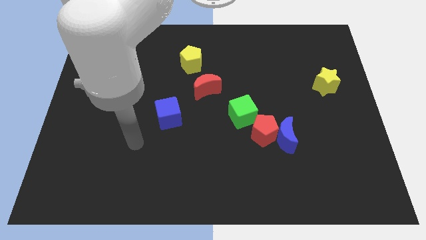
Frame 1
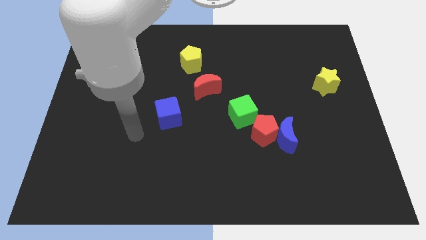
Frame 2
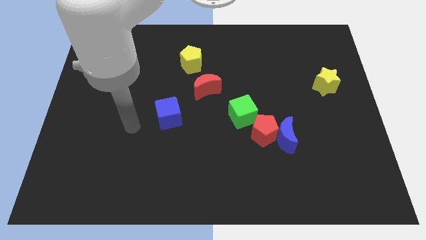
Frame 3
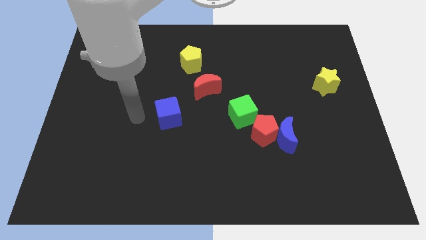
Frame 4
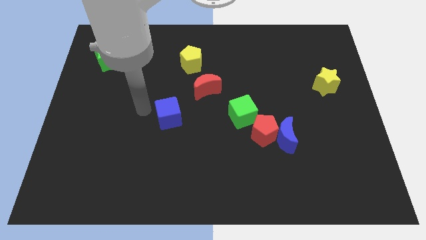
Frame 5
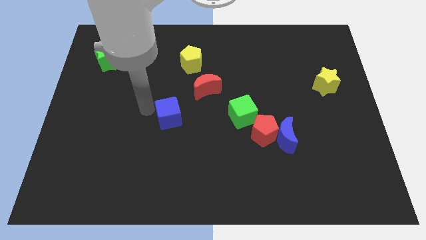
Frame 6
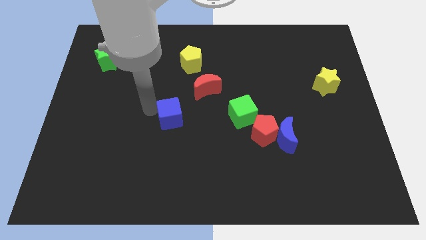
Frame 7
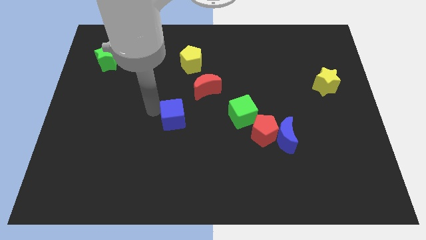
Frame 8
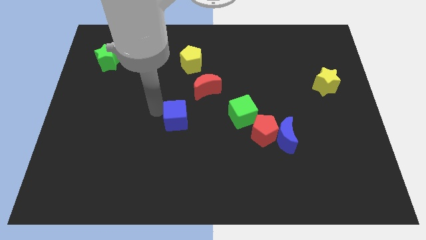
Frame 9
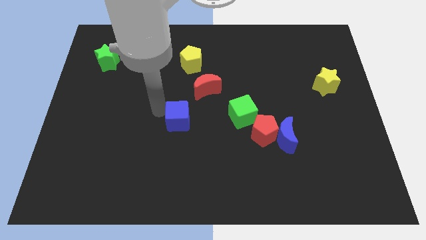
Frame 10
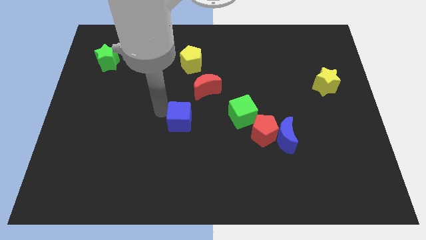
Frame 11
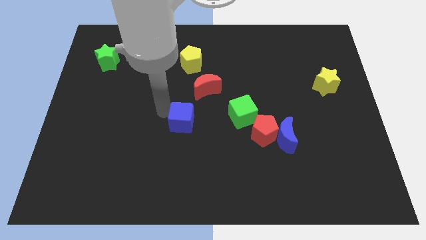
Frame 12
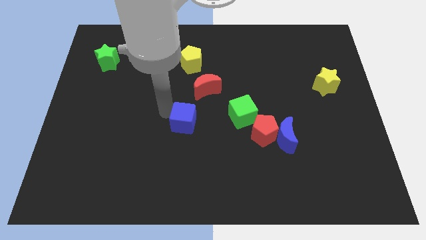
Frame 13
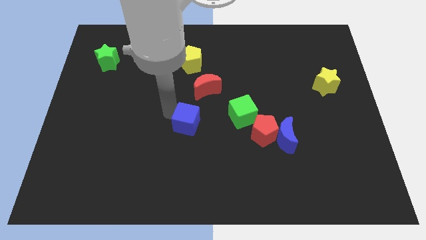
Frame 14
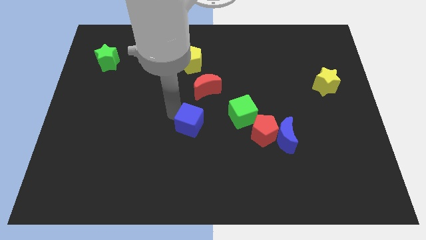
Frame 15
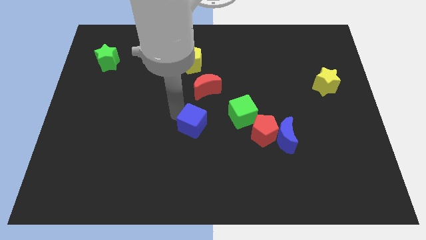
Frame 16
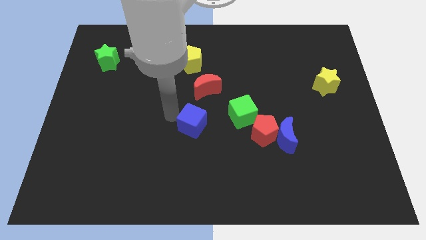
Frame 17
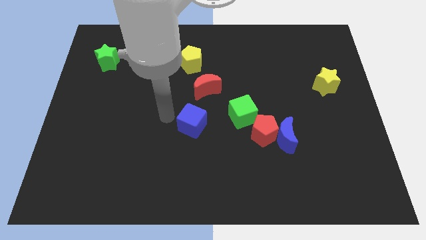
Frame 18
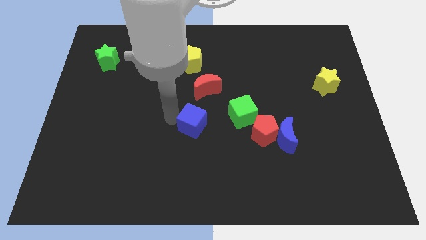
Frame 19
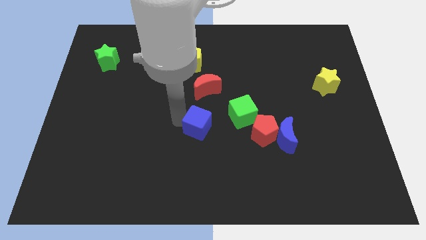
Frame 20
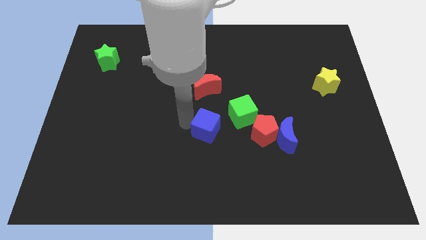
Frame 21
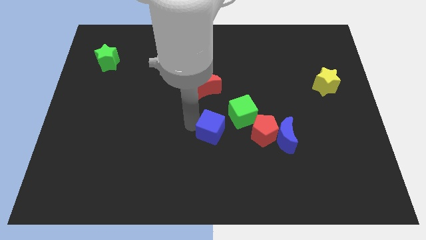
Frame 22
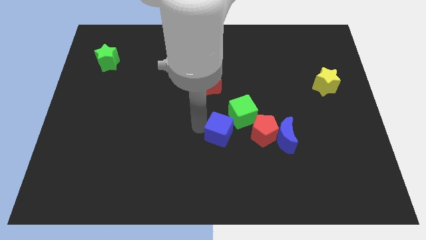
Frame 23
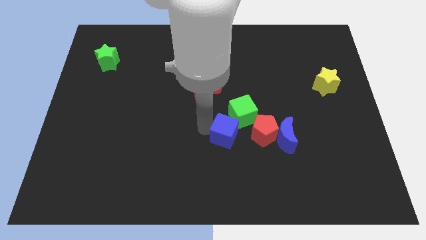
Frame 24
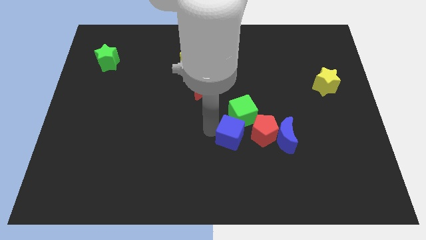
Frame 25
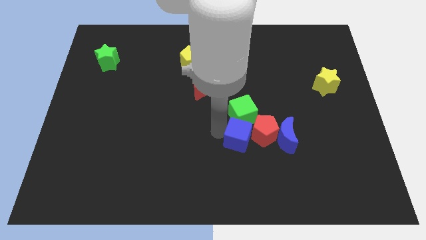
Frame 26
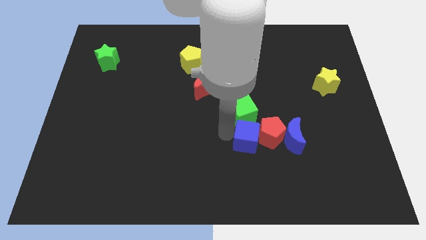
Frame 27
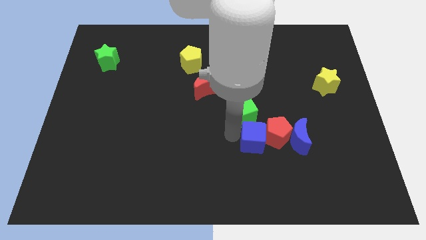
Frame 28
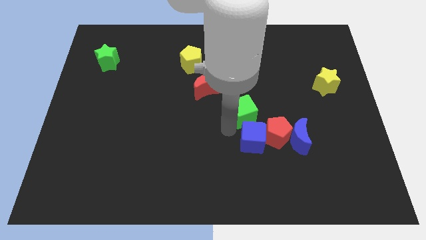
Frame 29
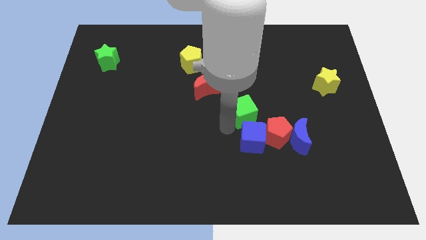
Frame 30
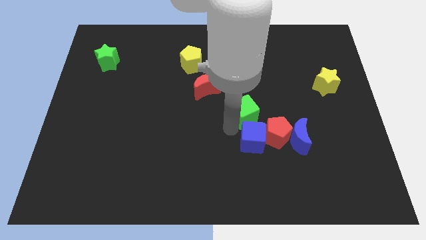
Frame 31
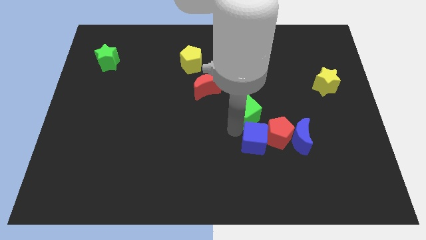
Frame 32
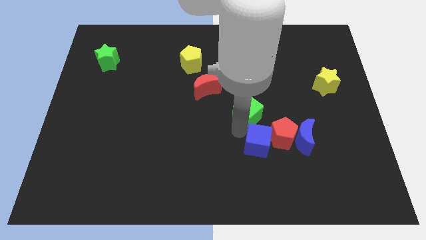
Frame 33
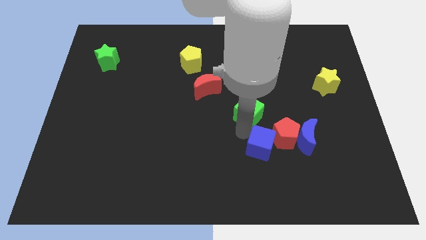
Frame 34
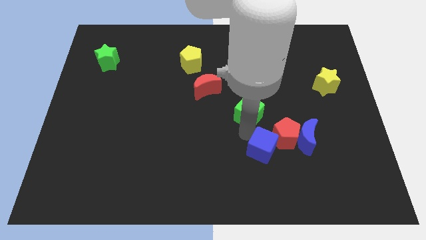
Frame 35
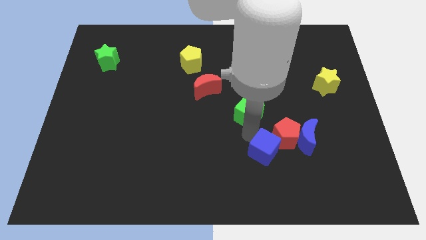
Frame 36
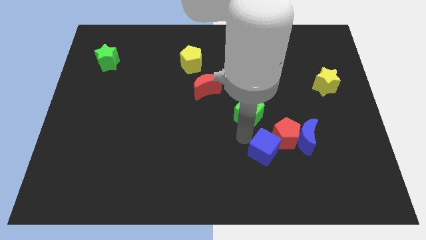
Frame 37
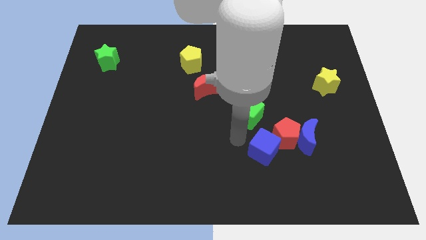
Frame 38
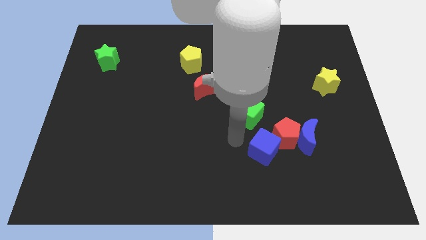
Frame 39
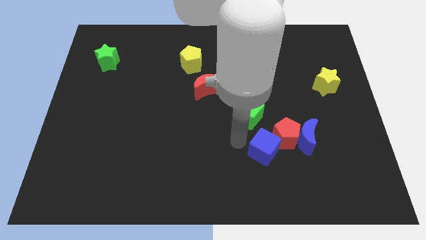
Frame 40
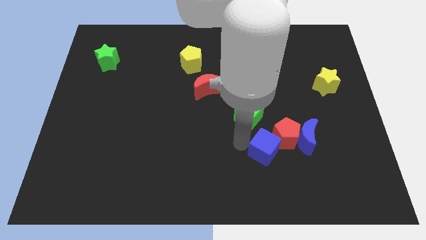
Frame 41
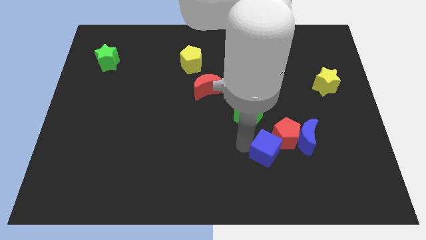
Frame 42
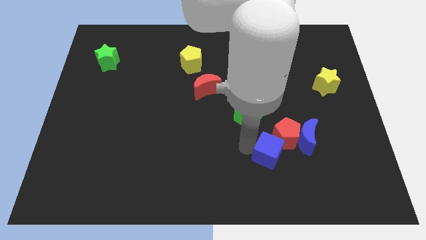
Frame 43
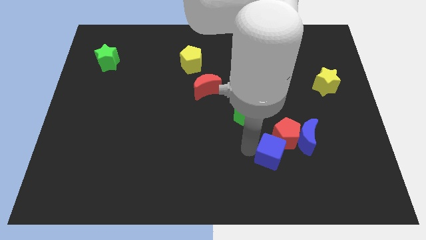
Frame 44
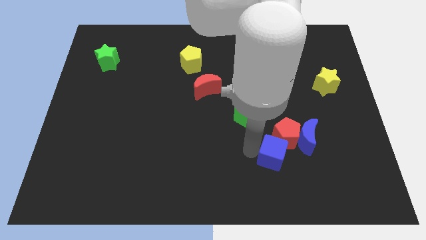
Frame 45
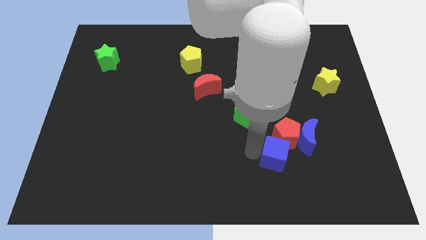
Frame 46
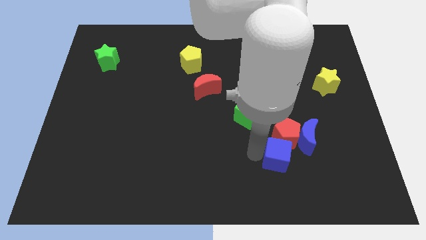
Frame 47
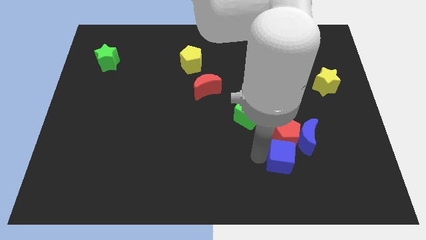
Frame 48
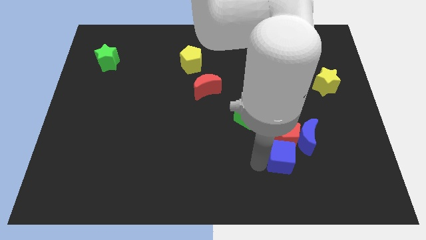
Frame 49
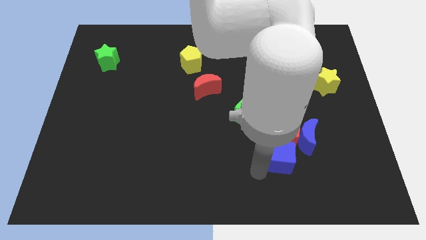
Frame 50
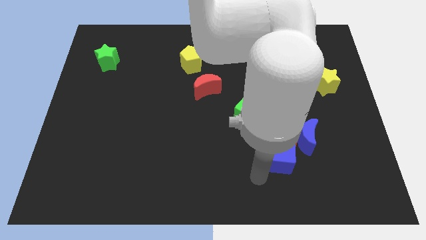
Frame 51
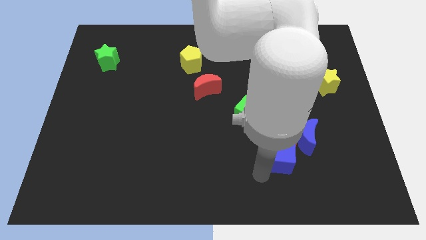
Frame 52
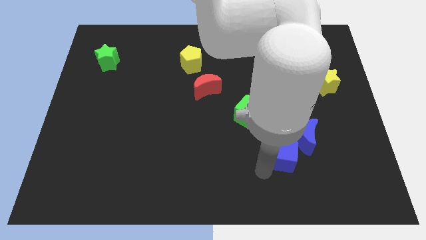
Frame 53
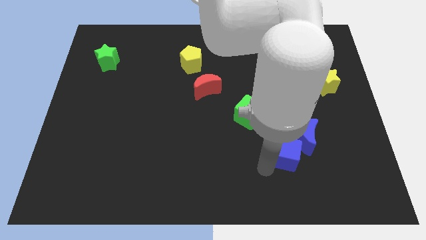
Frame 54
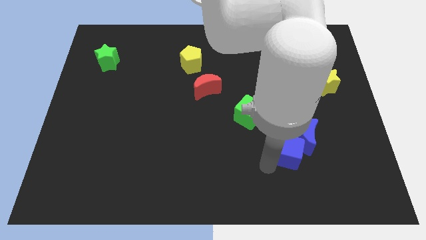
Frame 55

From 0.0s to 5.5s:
put the blue cube close to the blue moon

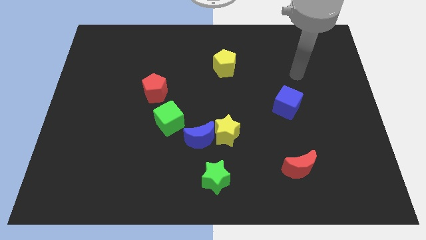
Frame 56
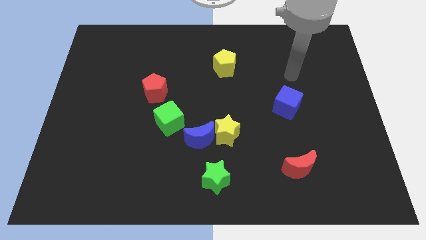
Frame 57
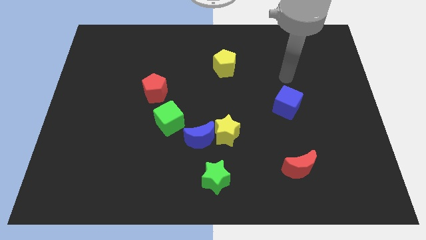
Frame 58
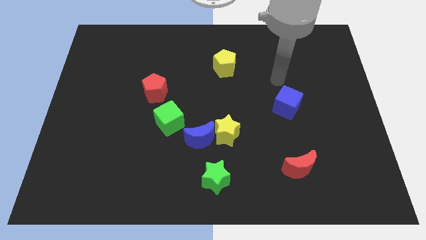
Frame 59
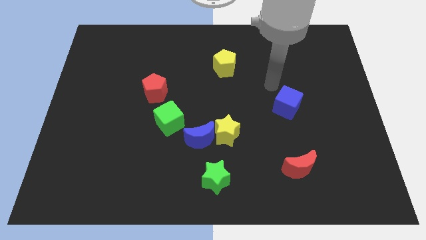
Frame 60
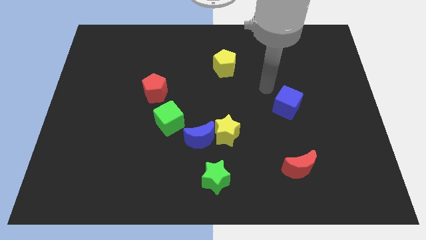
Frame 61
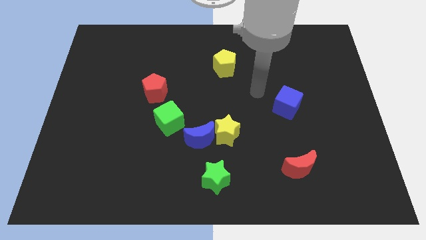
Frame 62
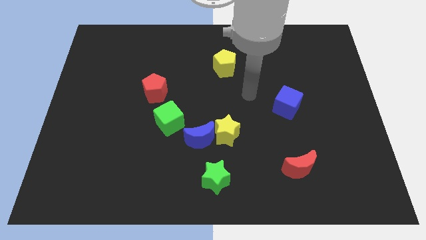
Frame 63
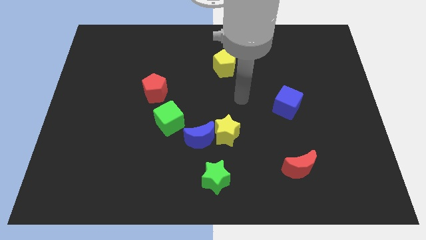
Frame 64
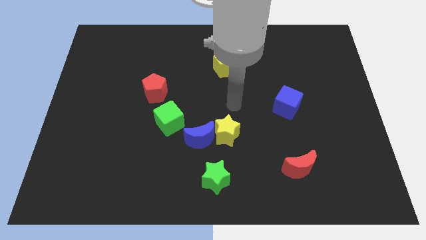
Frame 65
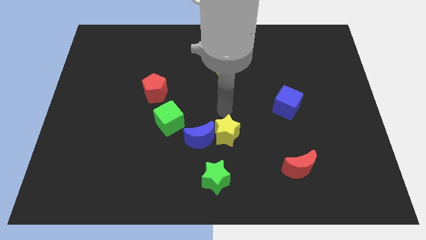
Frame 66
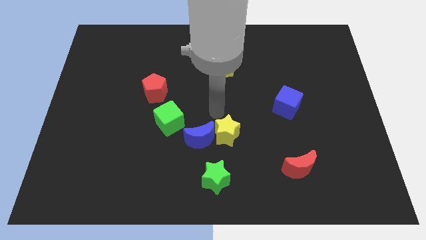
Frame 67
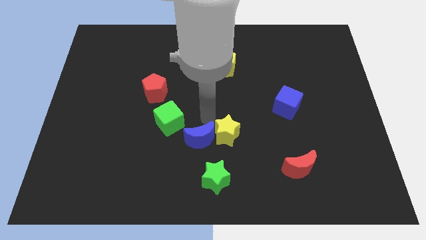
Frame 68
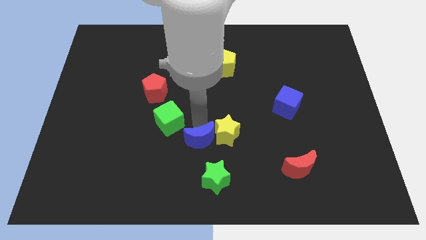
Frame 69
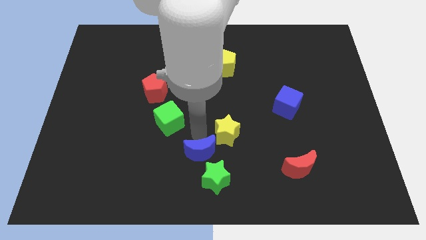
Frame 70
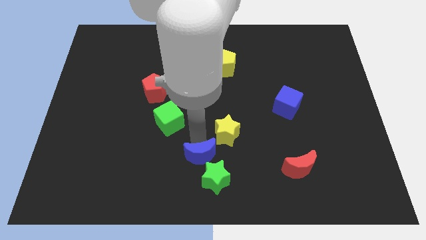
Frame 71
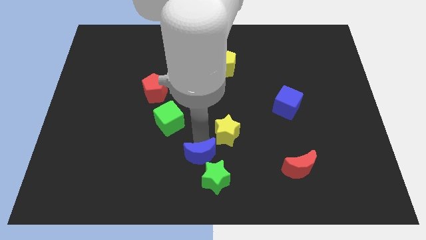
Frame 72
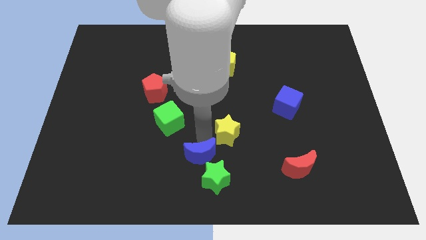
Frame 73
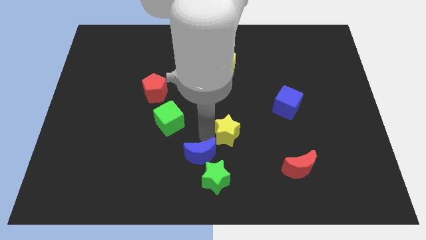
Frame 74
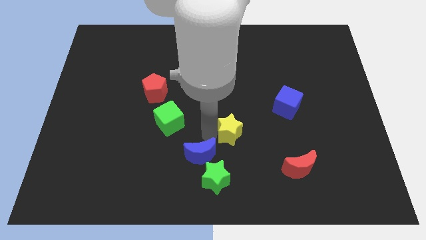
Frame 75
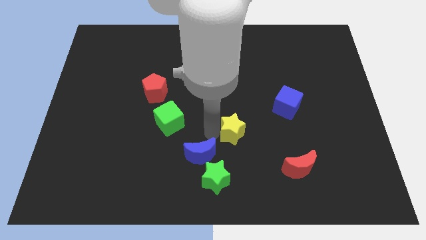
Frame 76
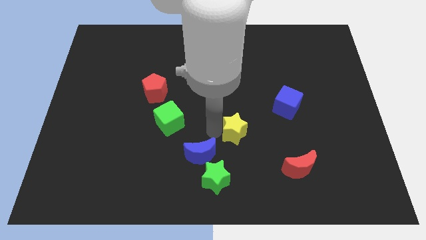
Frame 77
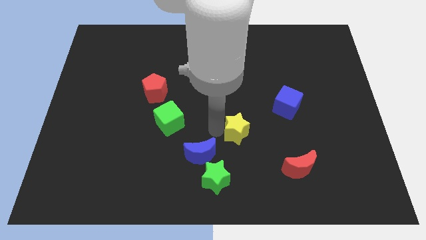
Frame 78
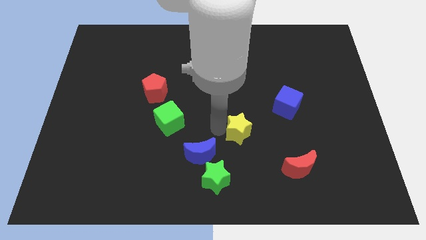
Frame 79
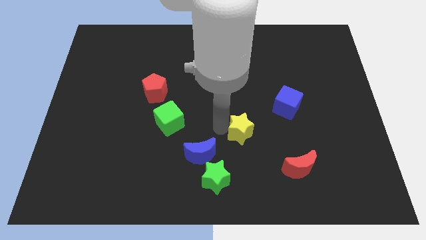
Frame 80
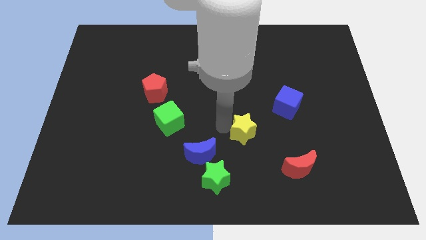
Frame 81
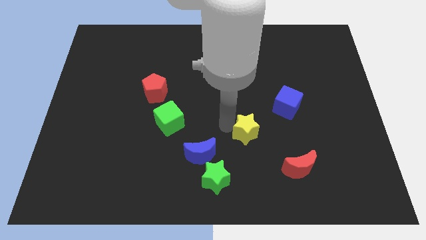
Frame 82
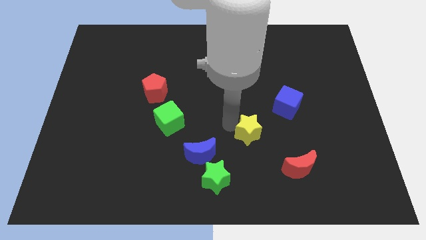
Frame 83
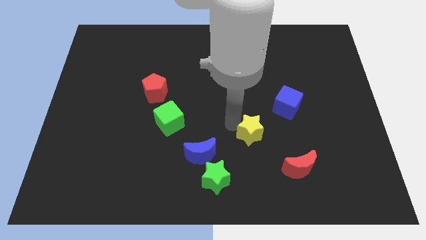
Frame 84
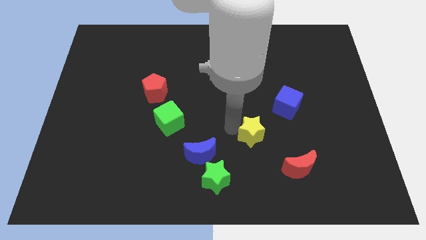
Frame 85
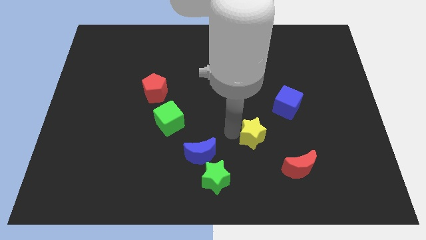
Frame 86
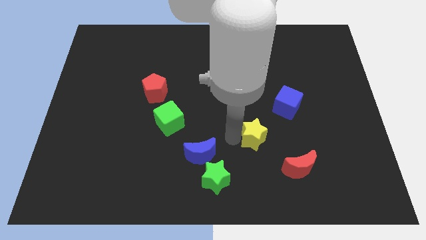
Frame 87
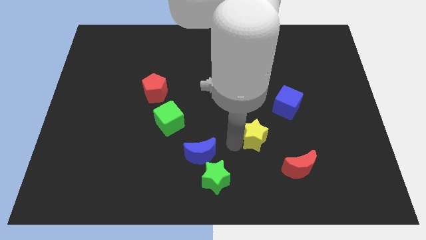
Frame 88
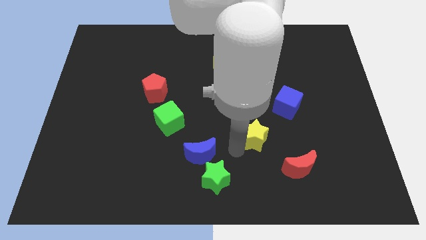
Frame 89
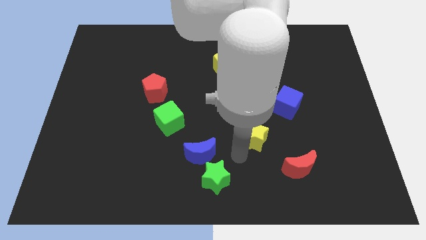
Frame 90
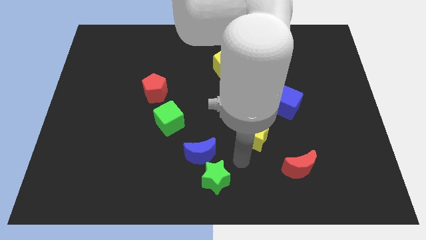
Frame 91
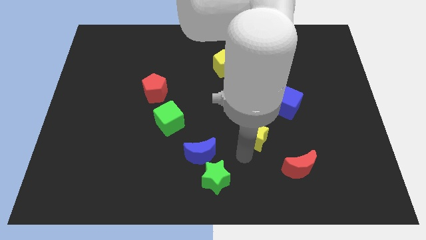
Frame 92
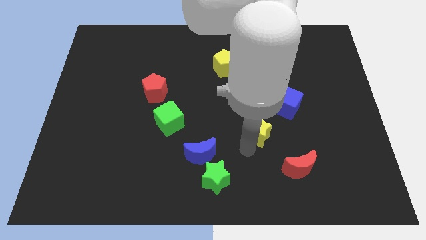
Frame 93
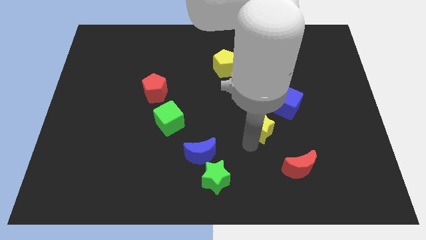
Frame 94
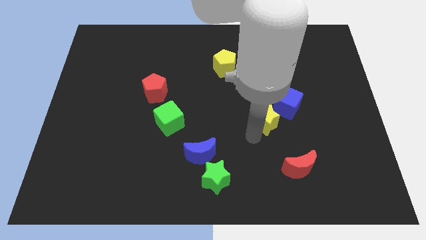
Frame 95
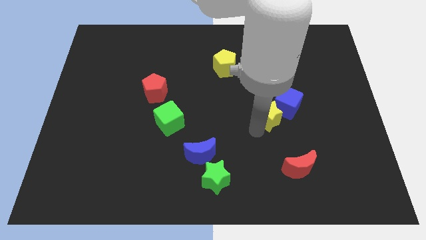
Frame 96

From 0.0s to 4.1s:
push the yellow star next to the blue cube
